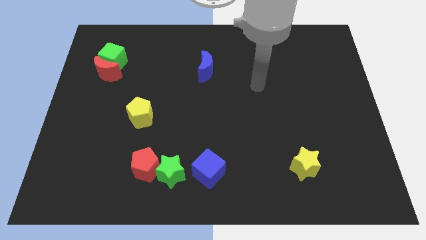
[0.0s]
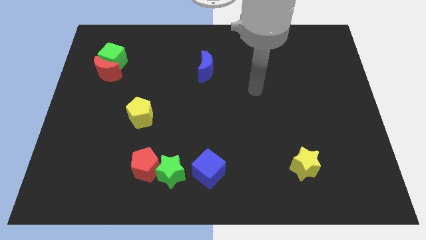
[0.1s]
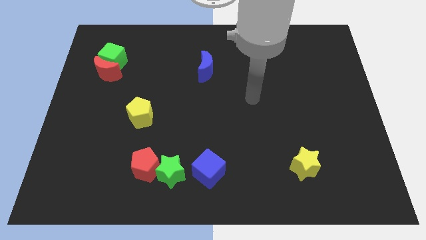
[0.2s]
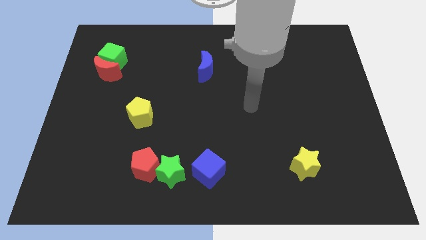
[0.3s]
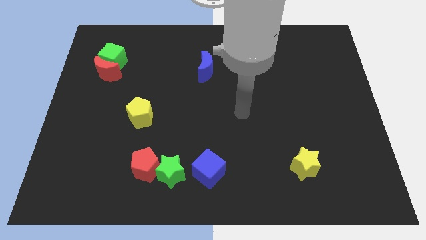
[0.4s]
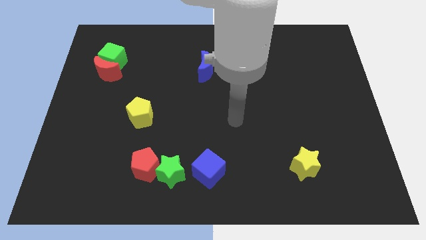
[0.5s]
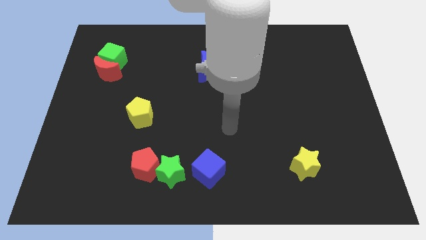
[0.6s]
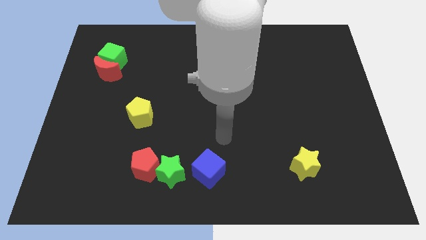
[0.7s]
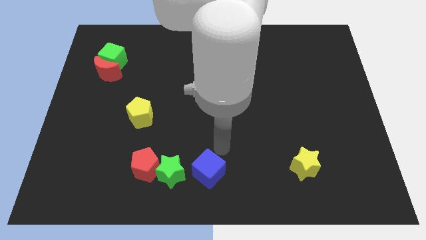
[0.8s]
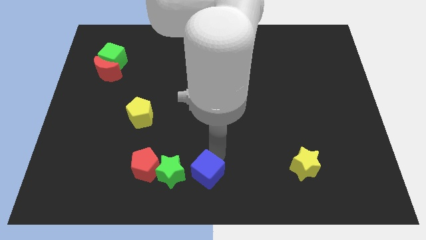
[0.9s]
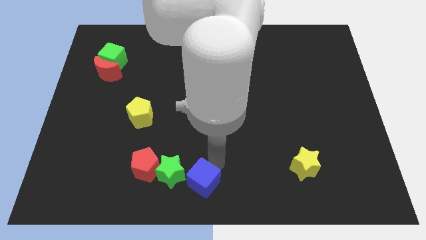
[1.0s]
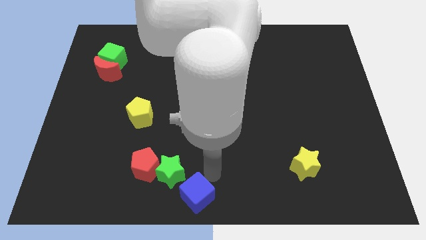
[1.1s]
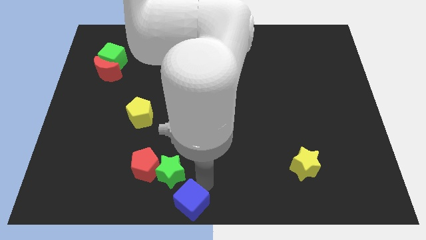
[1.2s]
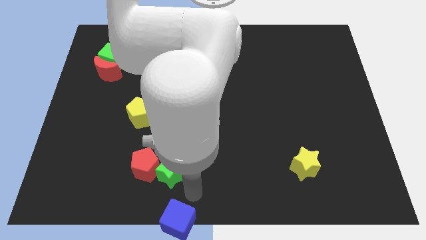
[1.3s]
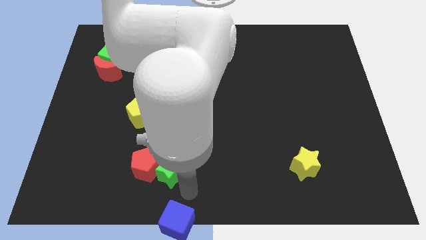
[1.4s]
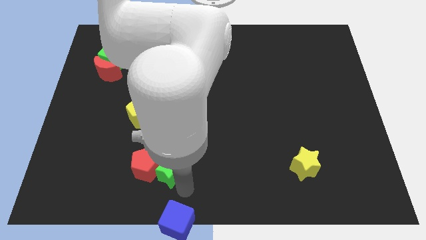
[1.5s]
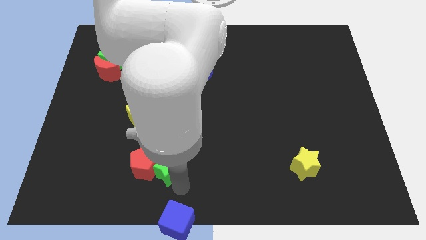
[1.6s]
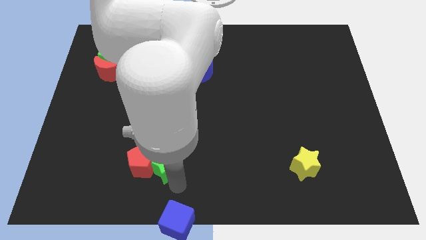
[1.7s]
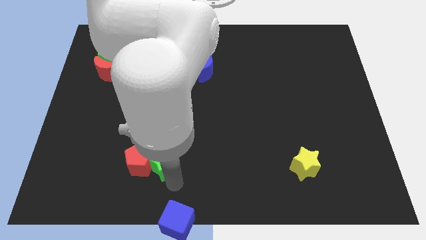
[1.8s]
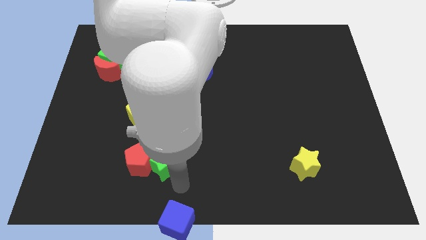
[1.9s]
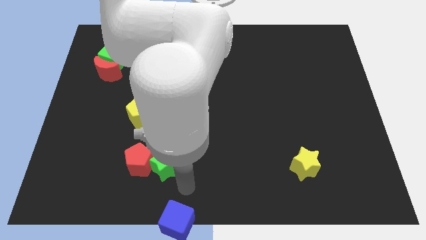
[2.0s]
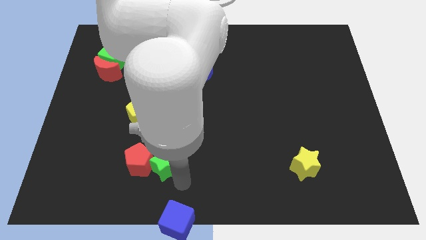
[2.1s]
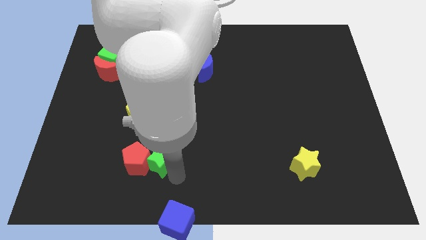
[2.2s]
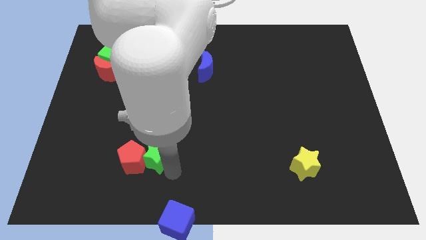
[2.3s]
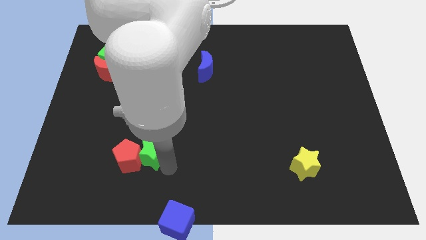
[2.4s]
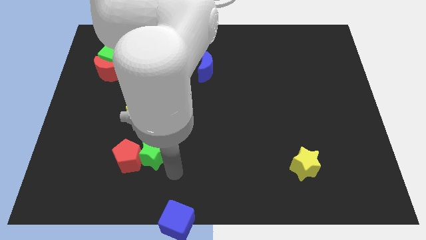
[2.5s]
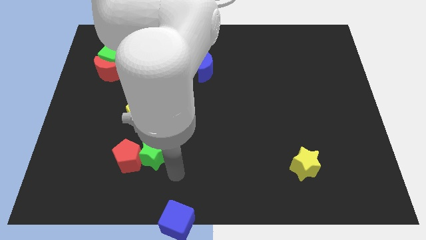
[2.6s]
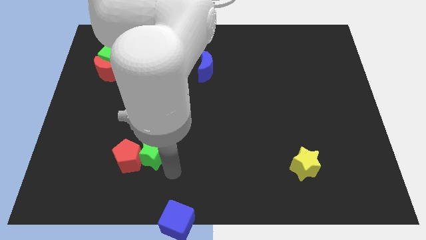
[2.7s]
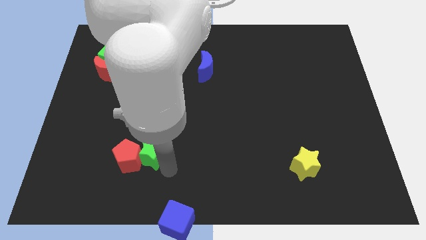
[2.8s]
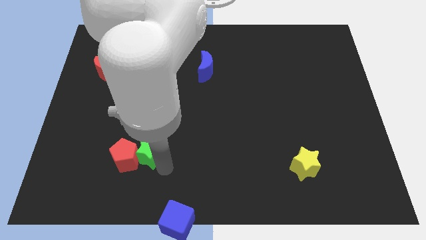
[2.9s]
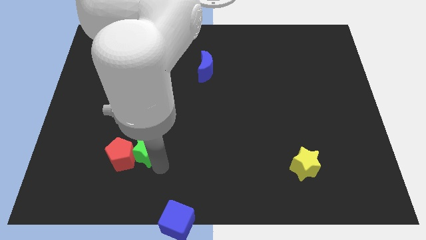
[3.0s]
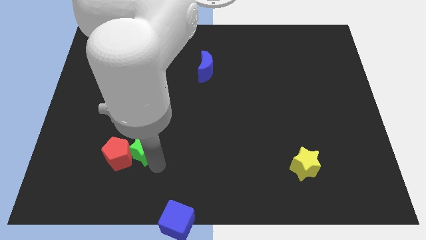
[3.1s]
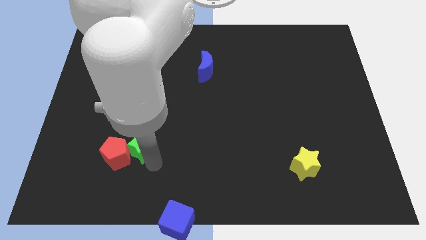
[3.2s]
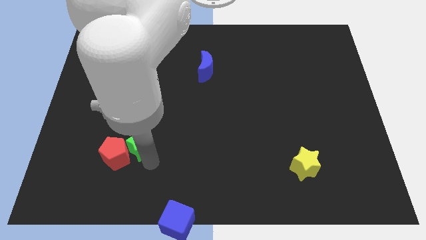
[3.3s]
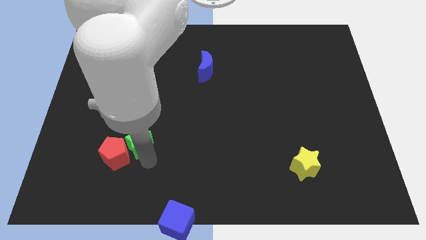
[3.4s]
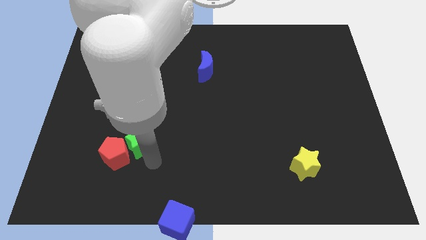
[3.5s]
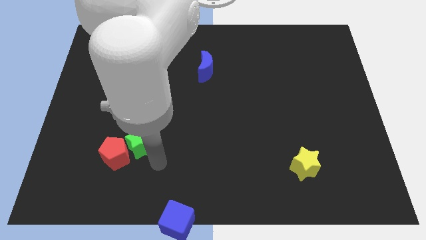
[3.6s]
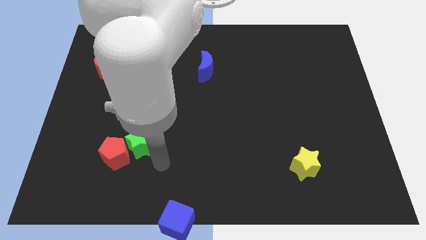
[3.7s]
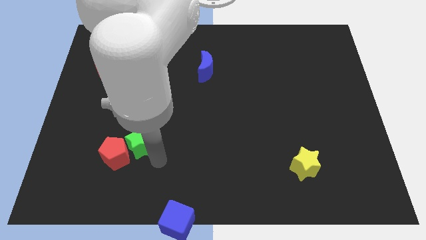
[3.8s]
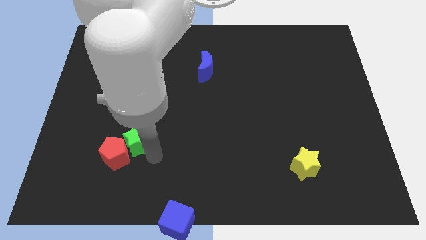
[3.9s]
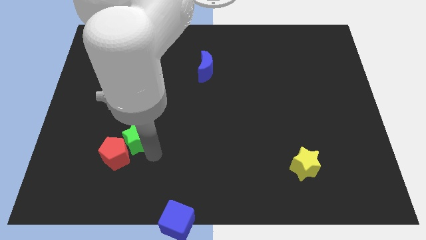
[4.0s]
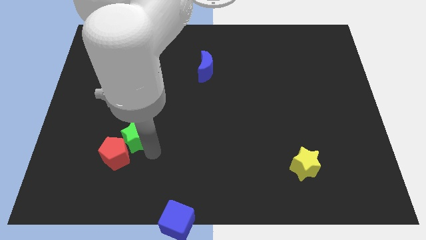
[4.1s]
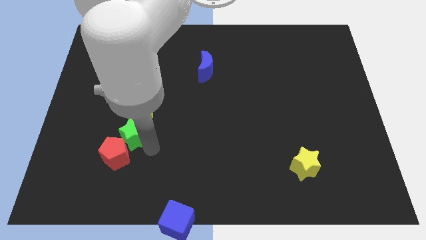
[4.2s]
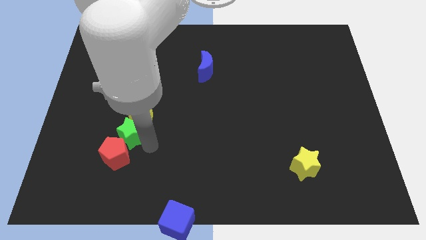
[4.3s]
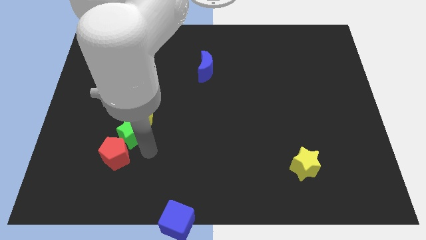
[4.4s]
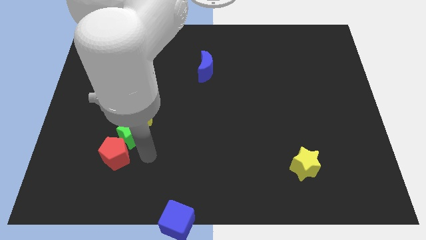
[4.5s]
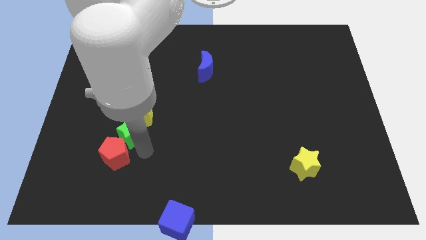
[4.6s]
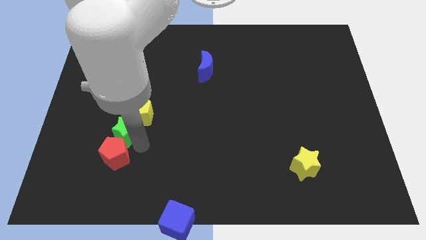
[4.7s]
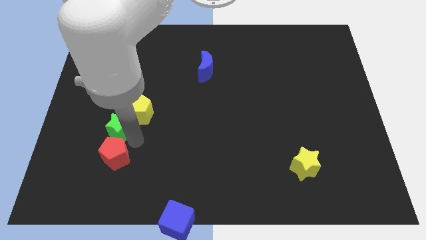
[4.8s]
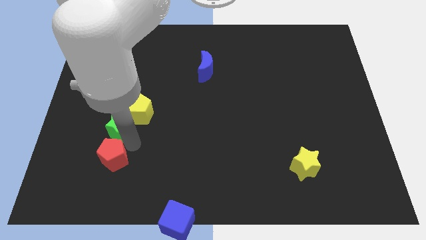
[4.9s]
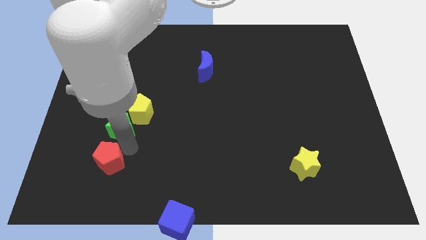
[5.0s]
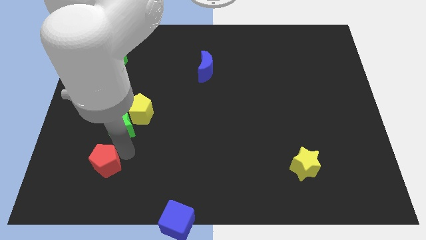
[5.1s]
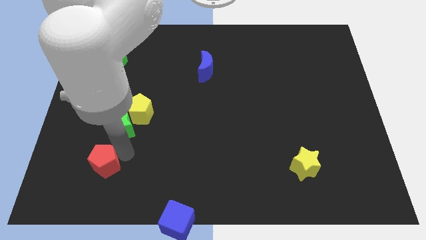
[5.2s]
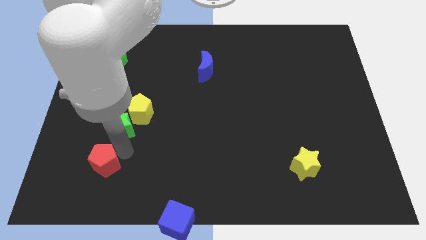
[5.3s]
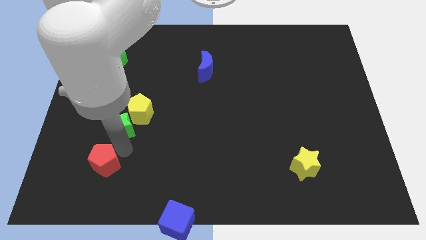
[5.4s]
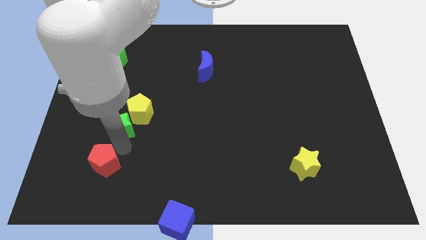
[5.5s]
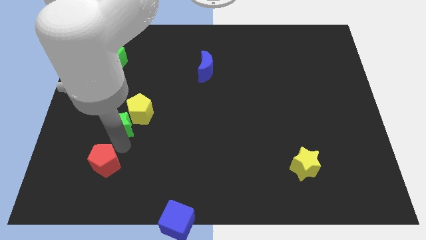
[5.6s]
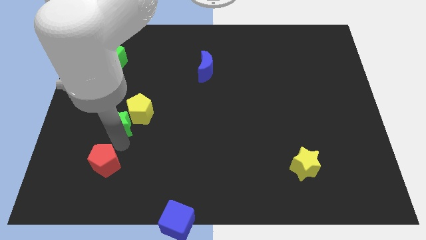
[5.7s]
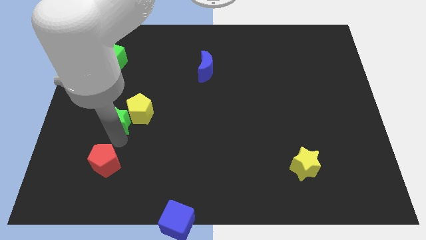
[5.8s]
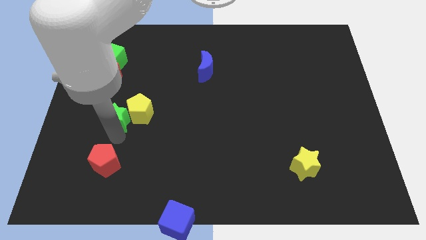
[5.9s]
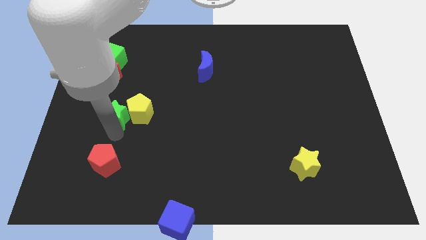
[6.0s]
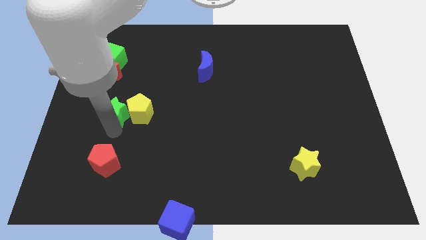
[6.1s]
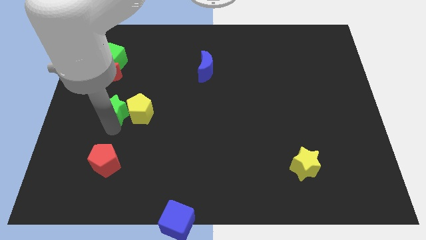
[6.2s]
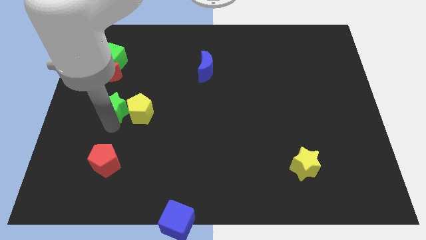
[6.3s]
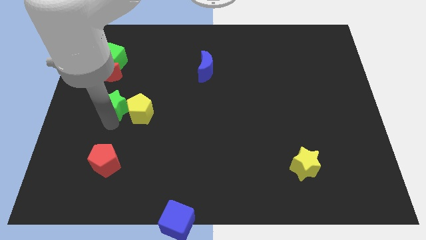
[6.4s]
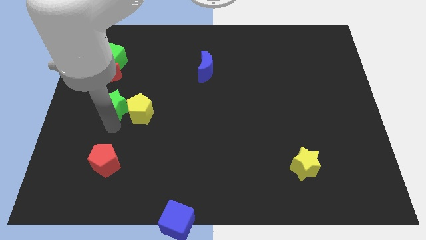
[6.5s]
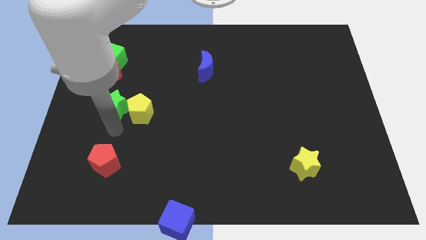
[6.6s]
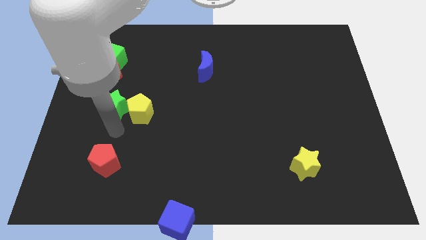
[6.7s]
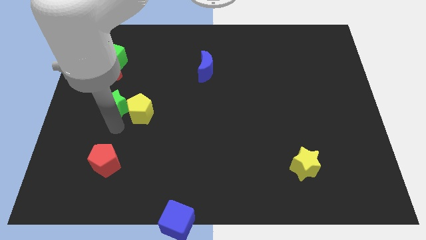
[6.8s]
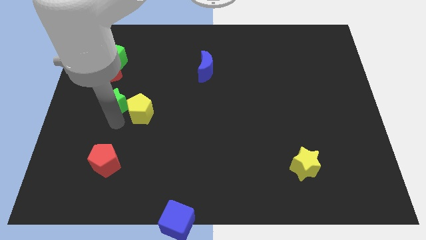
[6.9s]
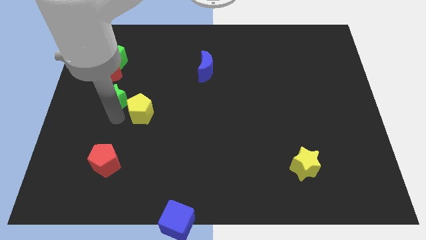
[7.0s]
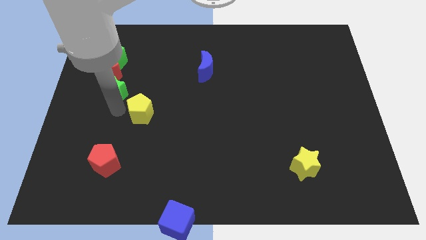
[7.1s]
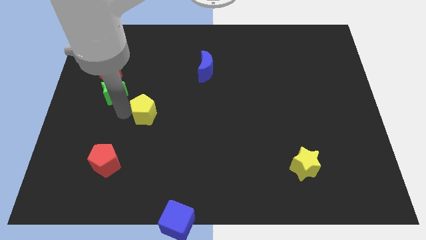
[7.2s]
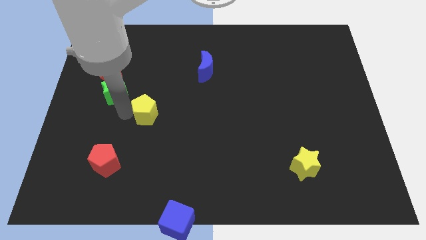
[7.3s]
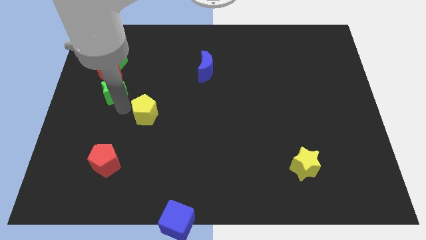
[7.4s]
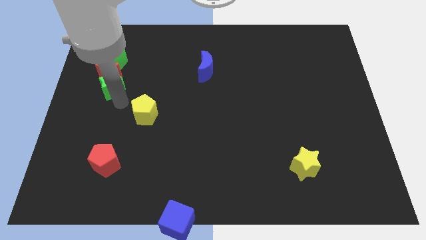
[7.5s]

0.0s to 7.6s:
slide the green star close to the red moon
